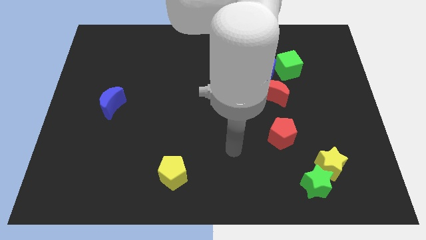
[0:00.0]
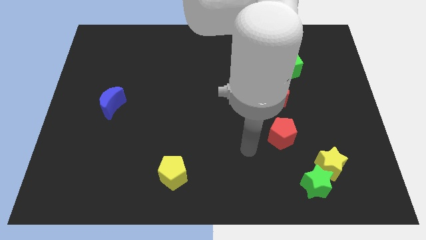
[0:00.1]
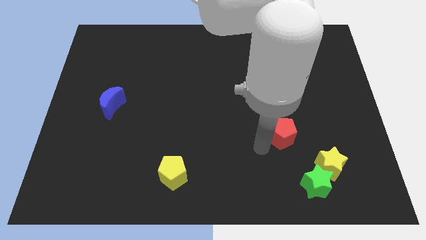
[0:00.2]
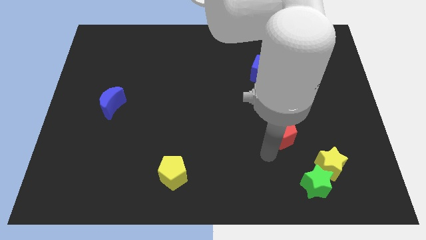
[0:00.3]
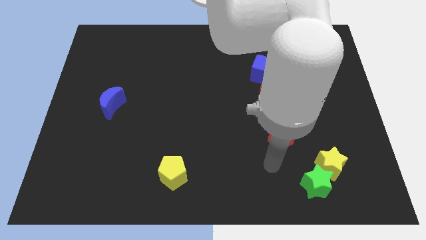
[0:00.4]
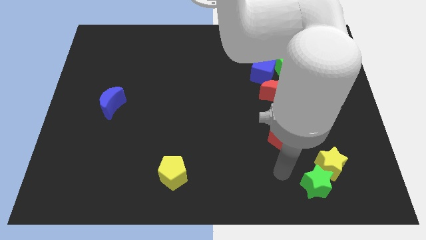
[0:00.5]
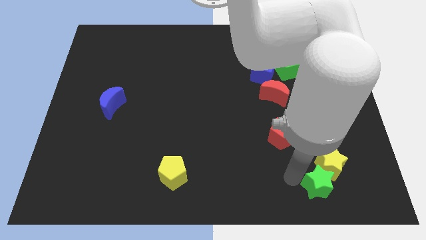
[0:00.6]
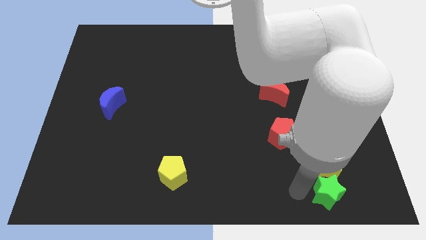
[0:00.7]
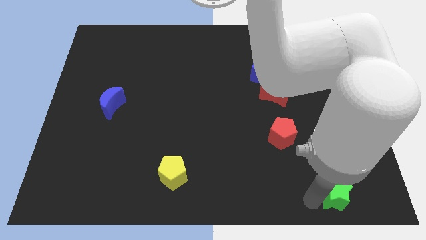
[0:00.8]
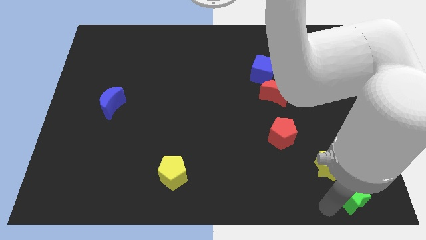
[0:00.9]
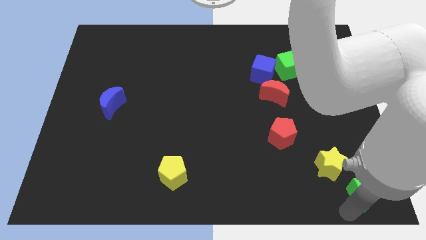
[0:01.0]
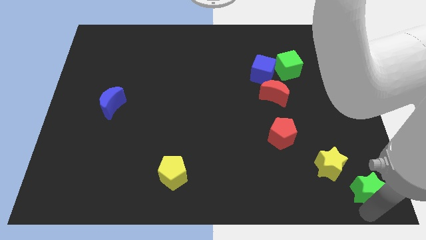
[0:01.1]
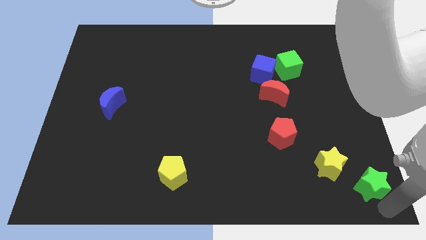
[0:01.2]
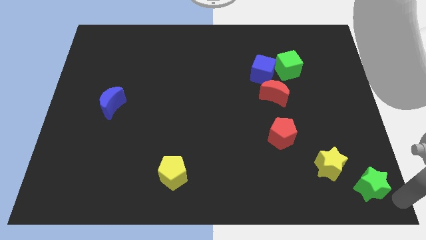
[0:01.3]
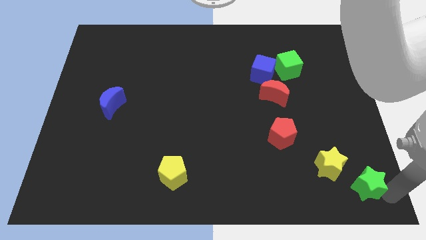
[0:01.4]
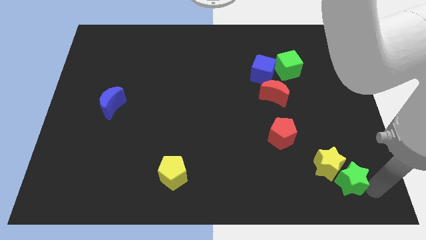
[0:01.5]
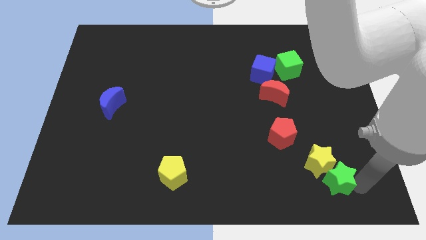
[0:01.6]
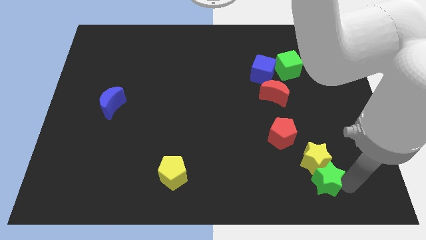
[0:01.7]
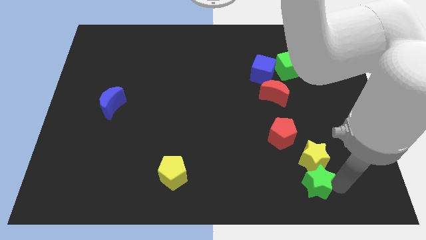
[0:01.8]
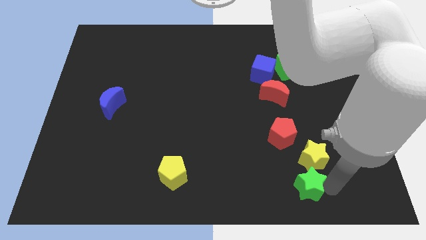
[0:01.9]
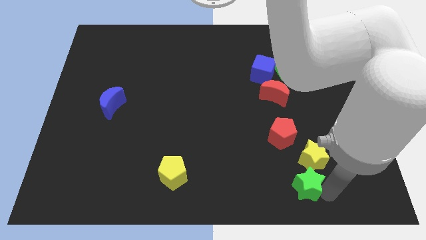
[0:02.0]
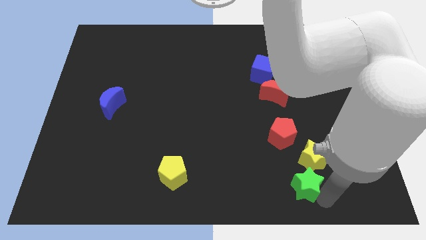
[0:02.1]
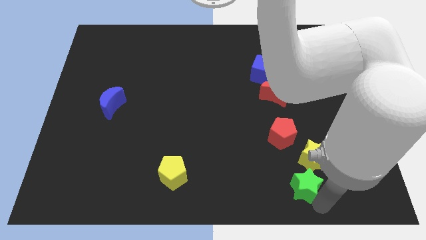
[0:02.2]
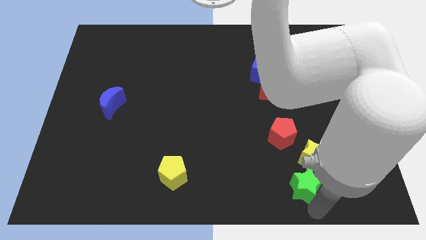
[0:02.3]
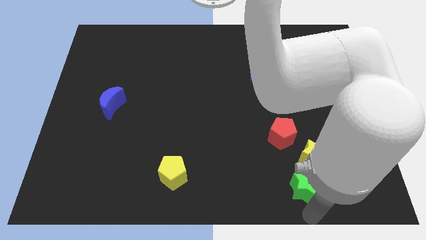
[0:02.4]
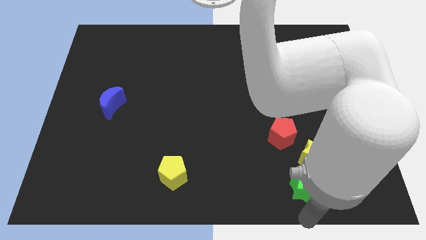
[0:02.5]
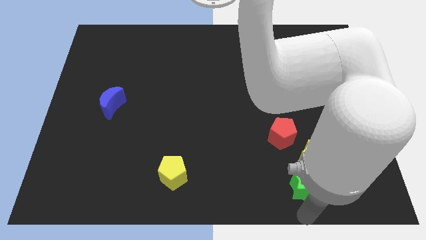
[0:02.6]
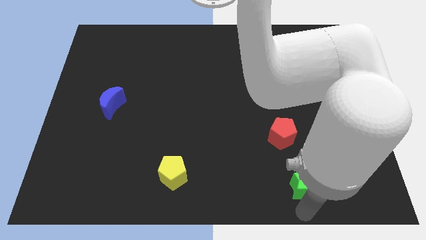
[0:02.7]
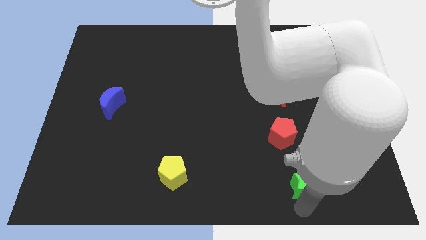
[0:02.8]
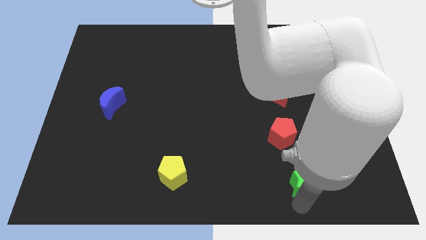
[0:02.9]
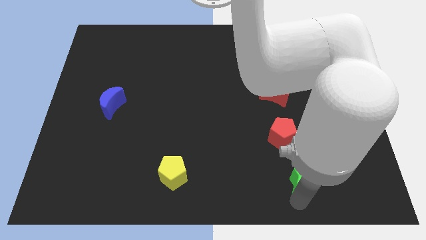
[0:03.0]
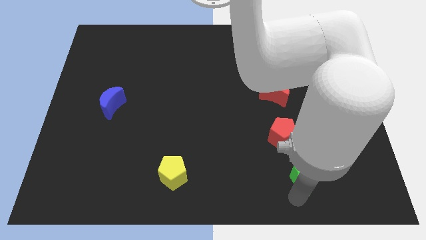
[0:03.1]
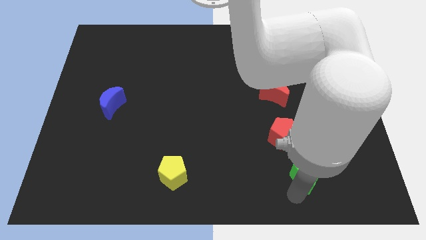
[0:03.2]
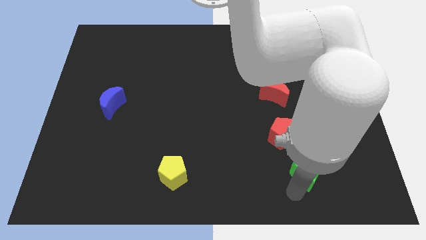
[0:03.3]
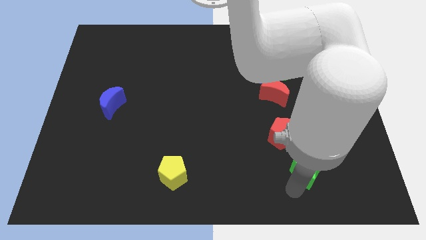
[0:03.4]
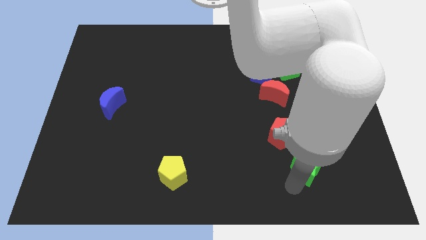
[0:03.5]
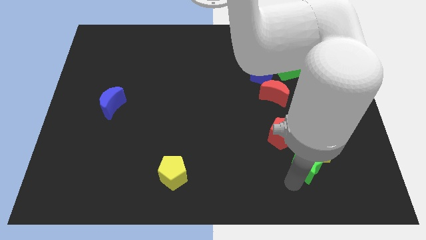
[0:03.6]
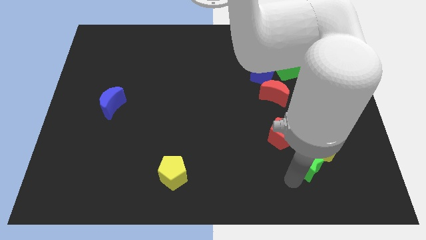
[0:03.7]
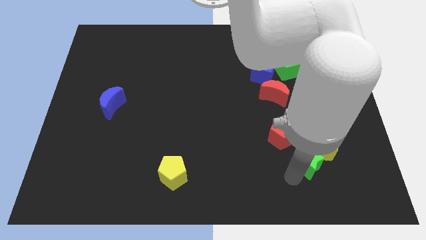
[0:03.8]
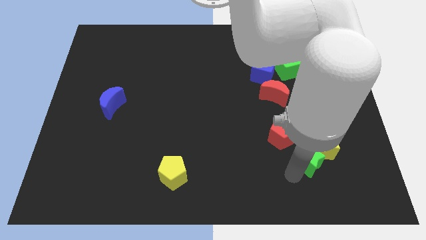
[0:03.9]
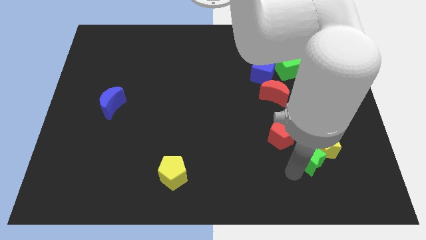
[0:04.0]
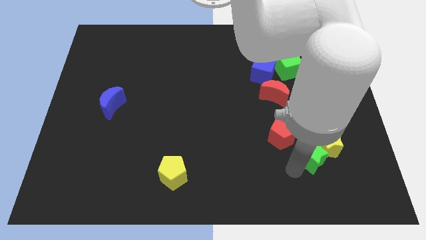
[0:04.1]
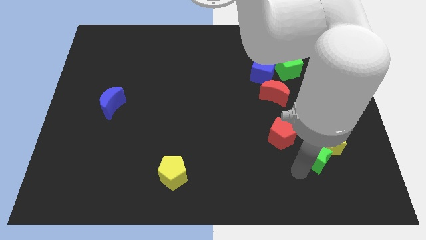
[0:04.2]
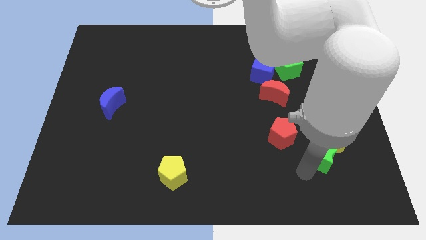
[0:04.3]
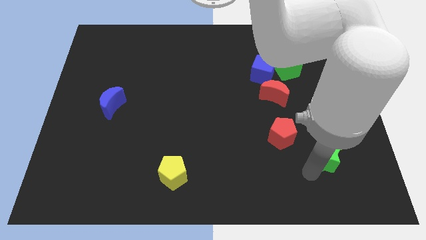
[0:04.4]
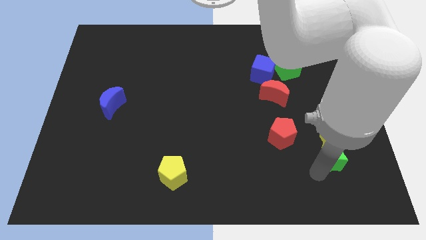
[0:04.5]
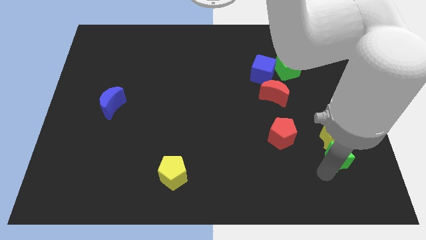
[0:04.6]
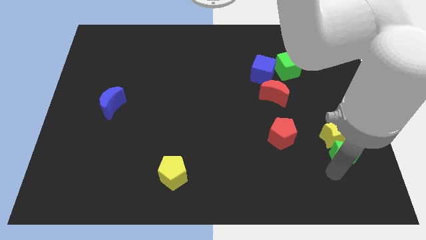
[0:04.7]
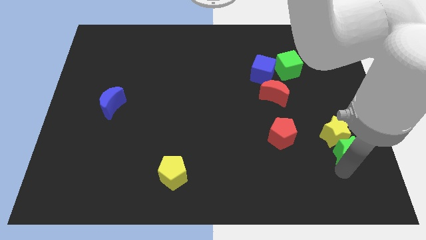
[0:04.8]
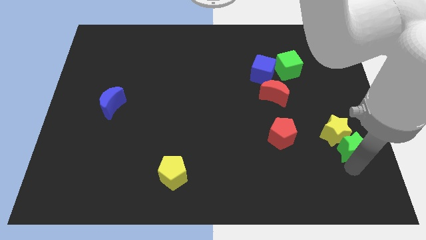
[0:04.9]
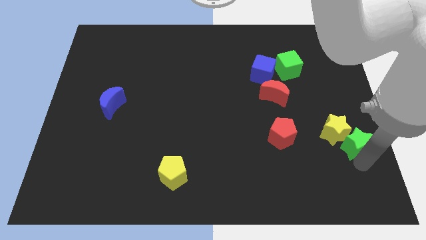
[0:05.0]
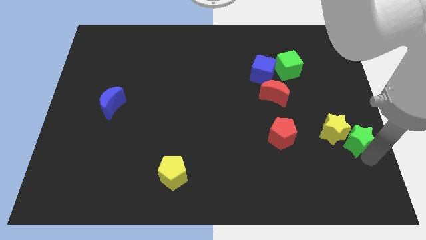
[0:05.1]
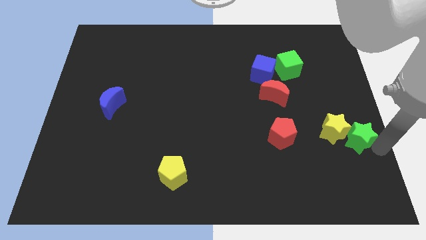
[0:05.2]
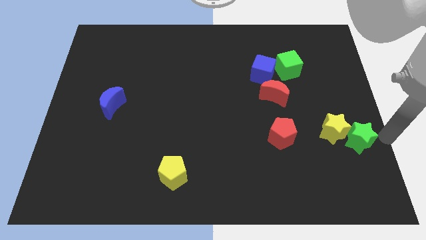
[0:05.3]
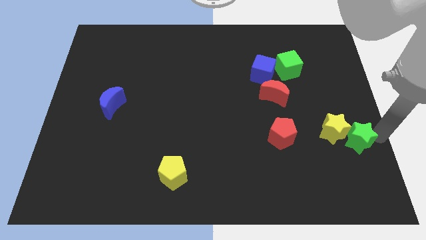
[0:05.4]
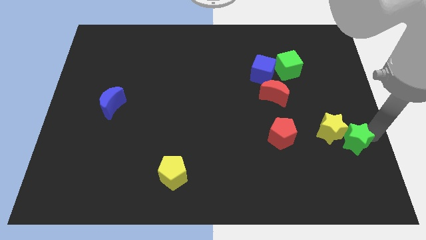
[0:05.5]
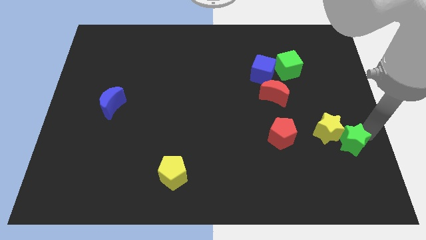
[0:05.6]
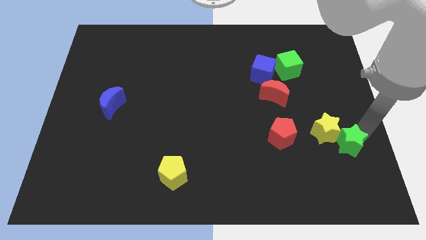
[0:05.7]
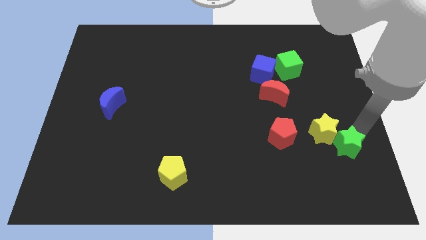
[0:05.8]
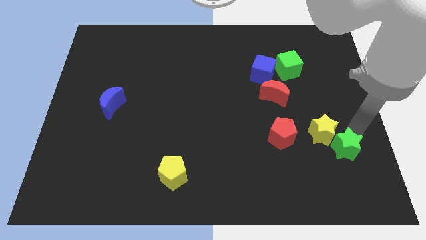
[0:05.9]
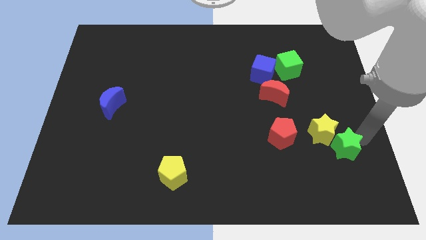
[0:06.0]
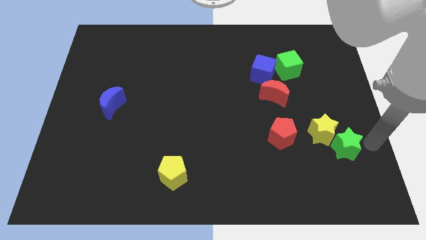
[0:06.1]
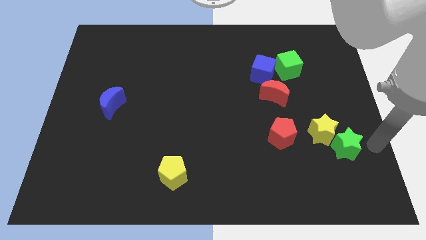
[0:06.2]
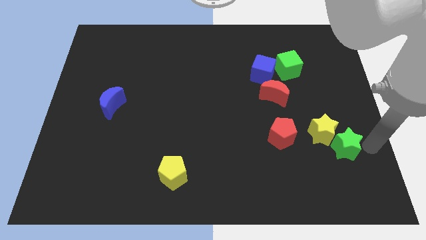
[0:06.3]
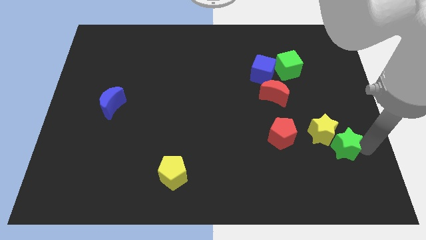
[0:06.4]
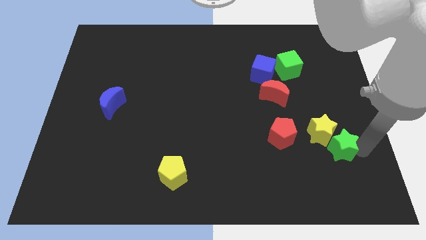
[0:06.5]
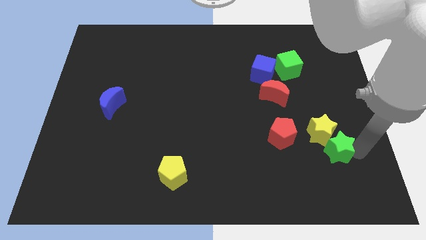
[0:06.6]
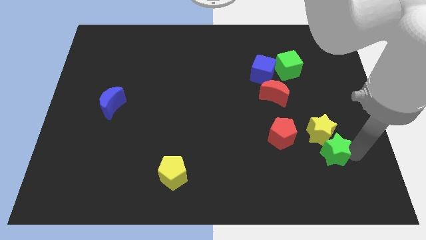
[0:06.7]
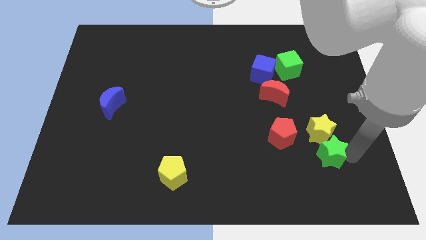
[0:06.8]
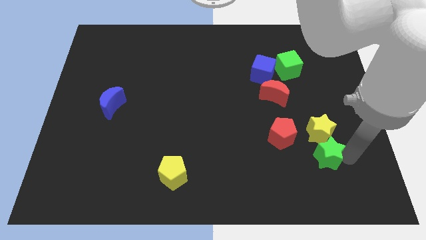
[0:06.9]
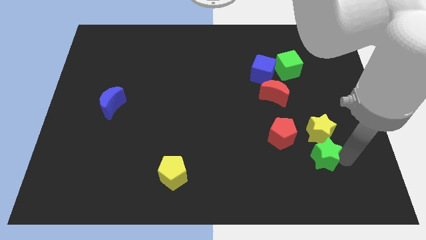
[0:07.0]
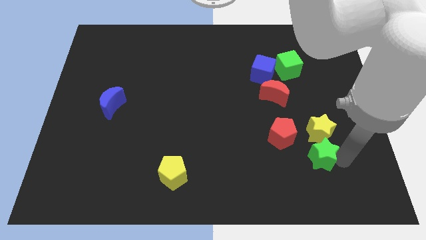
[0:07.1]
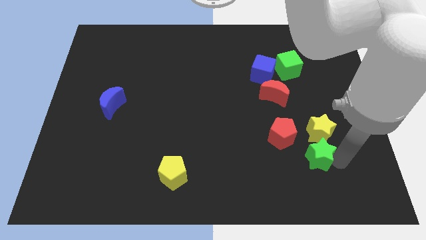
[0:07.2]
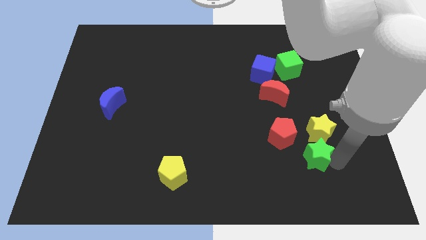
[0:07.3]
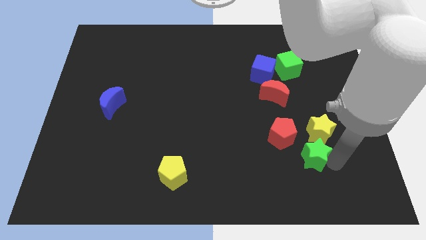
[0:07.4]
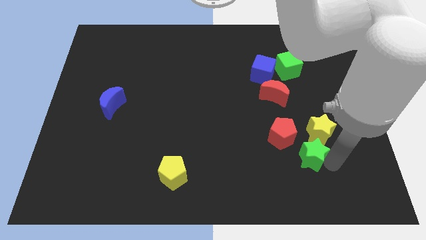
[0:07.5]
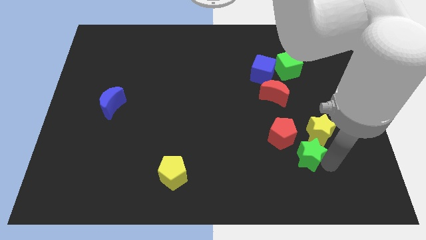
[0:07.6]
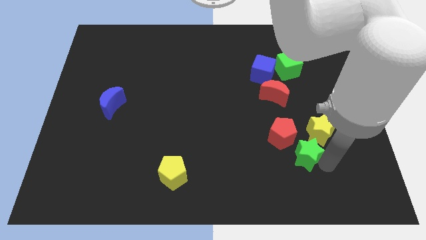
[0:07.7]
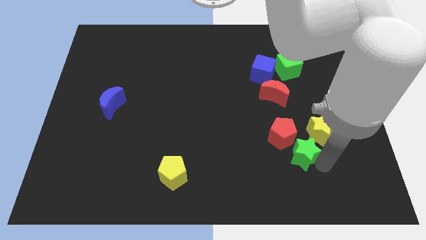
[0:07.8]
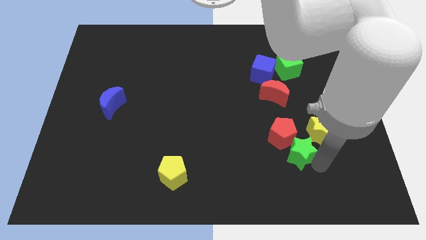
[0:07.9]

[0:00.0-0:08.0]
push the green star next to the red pentagon
